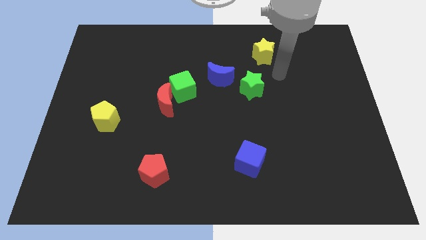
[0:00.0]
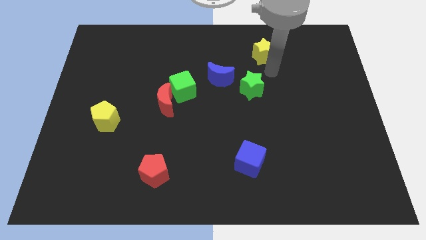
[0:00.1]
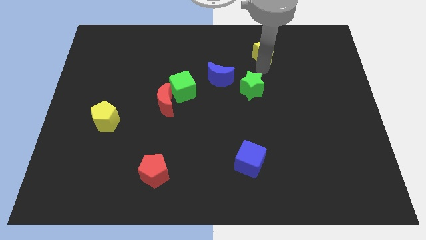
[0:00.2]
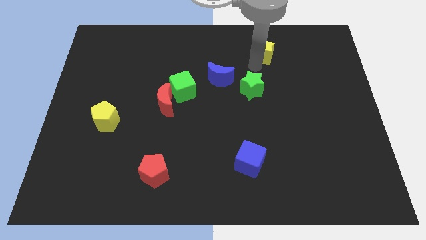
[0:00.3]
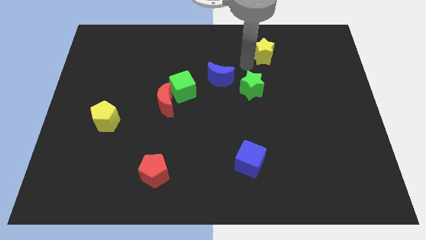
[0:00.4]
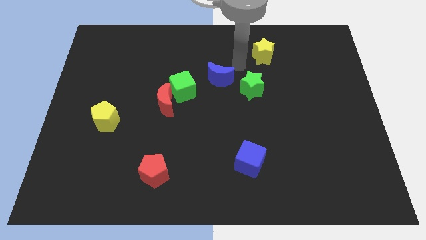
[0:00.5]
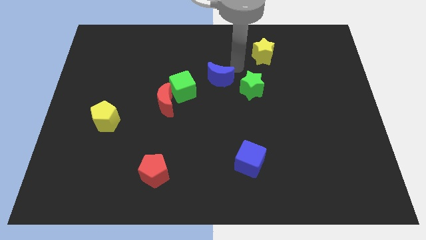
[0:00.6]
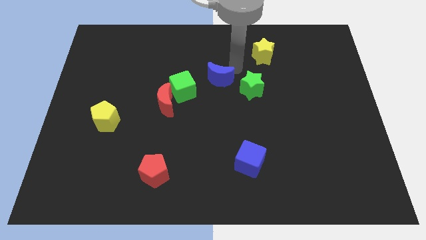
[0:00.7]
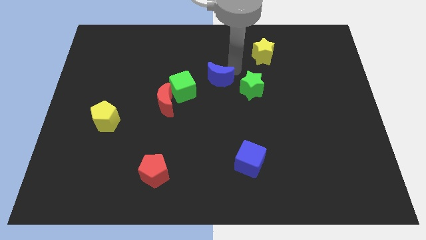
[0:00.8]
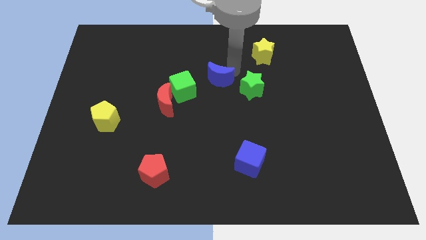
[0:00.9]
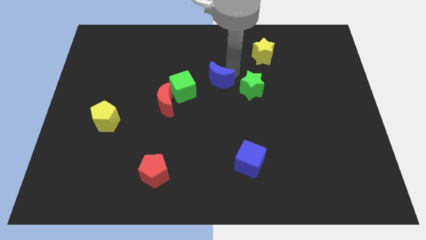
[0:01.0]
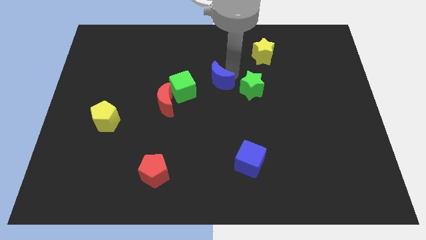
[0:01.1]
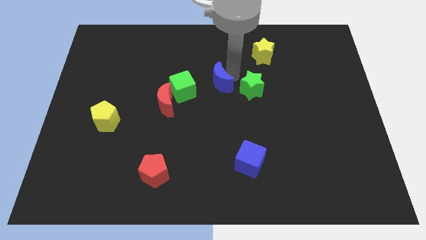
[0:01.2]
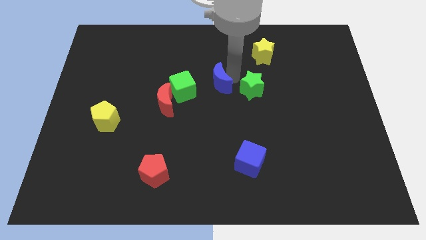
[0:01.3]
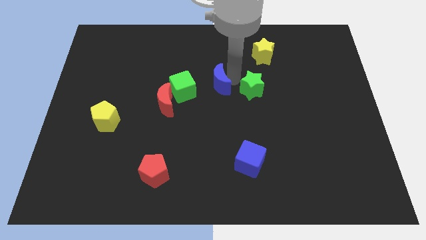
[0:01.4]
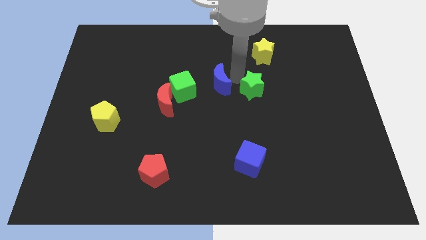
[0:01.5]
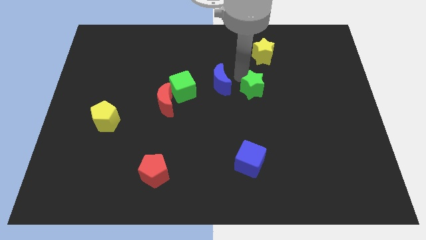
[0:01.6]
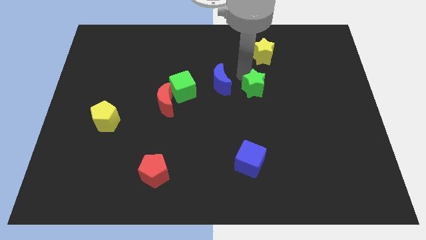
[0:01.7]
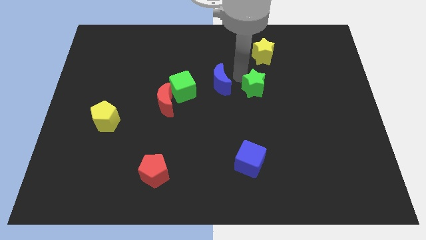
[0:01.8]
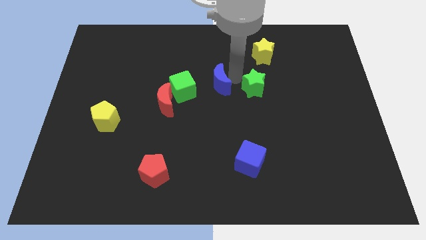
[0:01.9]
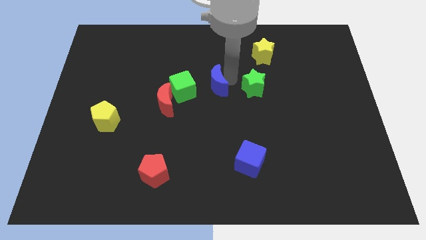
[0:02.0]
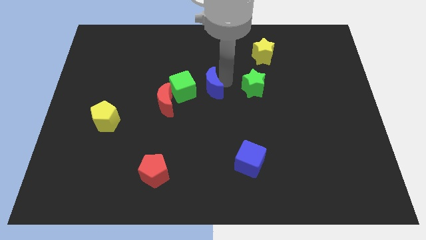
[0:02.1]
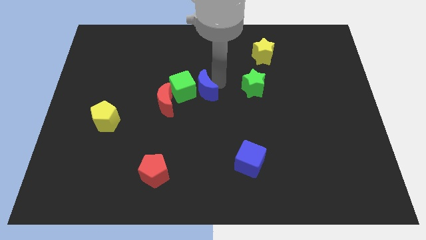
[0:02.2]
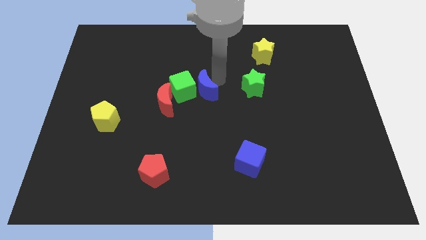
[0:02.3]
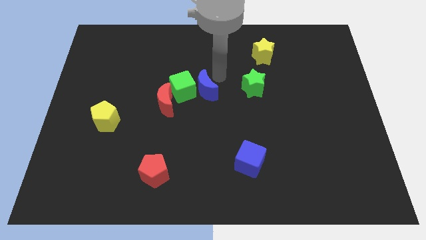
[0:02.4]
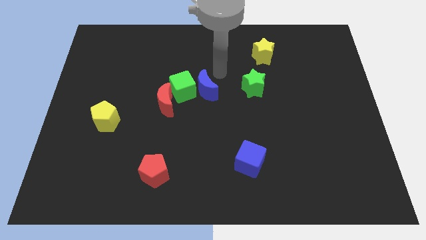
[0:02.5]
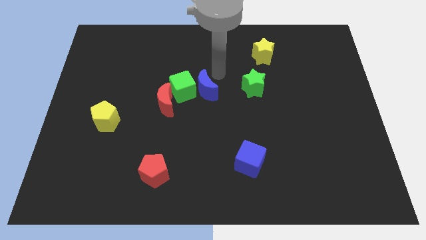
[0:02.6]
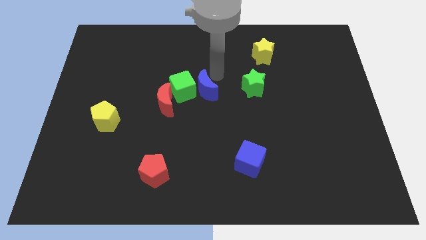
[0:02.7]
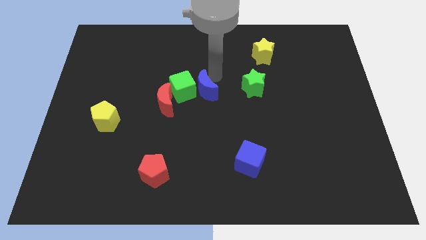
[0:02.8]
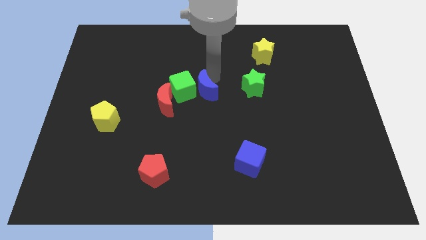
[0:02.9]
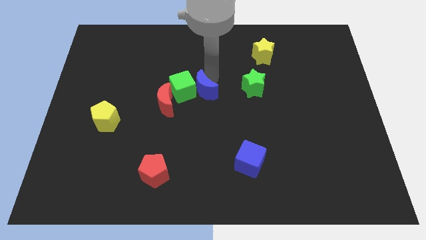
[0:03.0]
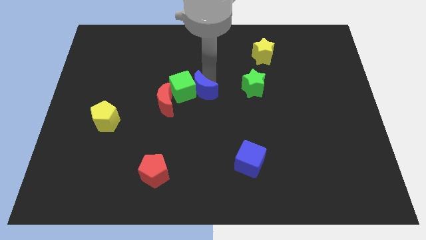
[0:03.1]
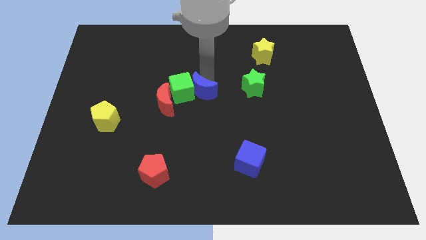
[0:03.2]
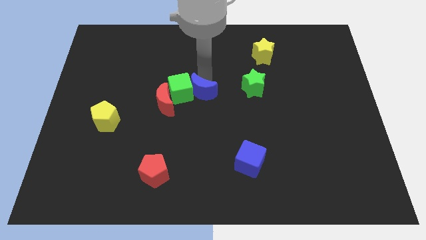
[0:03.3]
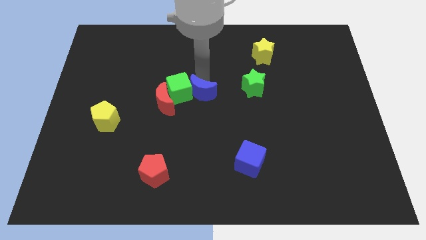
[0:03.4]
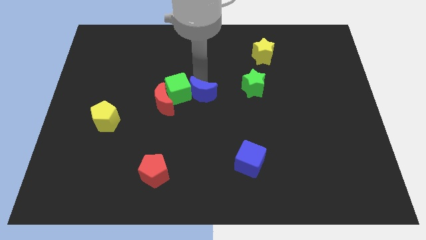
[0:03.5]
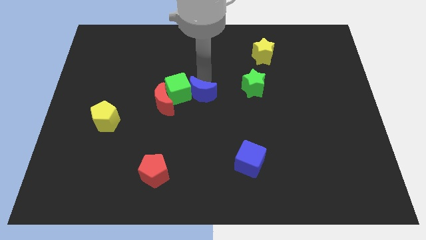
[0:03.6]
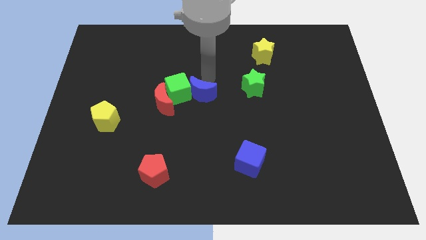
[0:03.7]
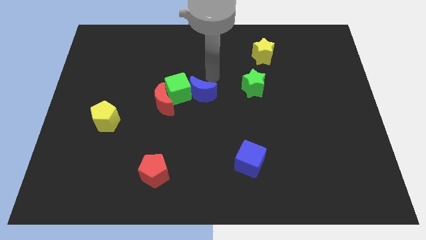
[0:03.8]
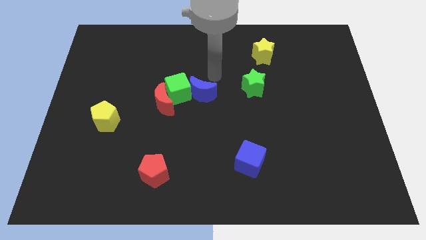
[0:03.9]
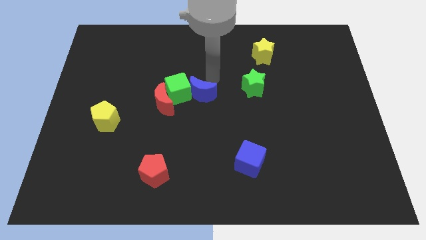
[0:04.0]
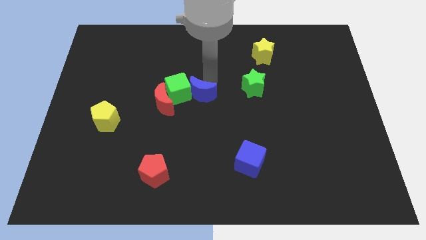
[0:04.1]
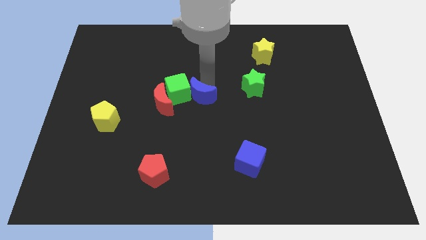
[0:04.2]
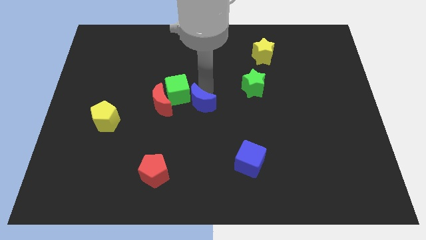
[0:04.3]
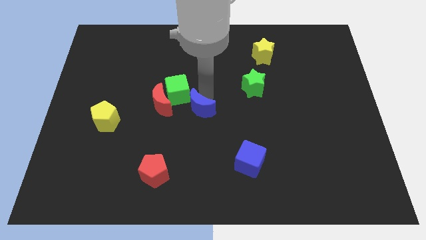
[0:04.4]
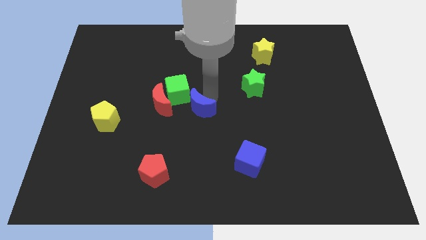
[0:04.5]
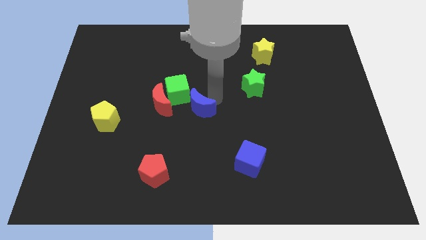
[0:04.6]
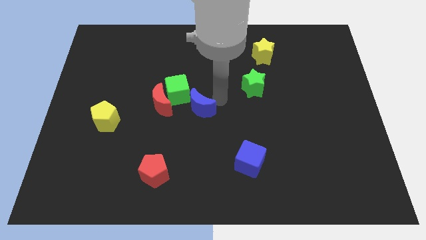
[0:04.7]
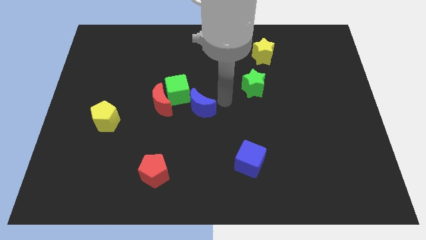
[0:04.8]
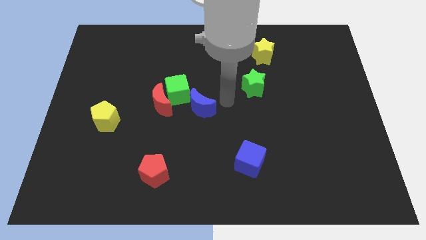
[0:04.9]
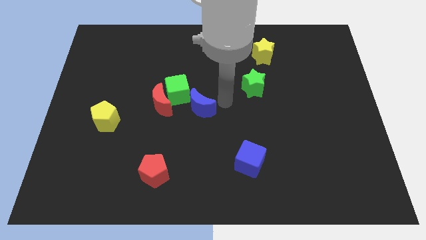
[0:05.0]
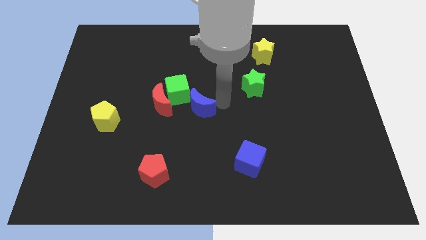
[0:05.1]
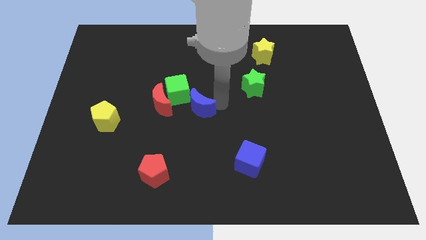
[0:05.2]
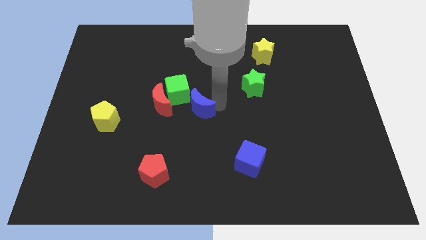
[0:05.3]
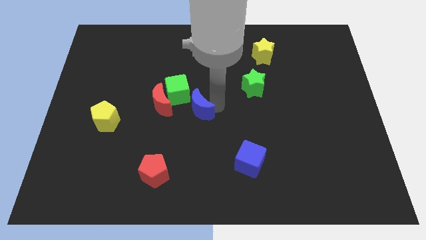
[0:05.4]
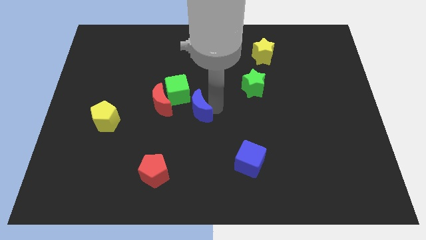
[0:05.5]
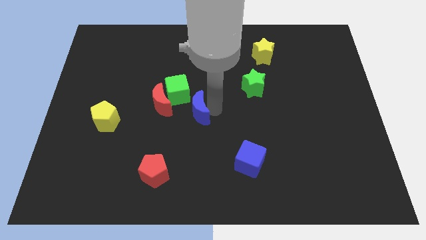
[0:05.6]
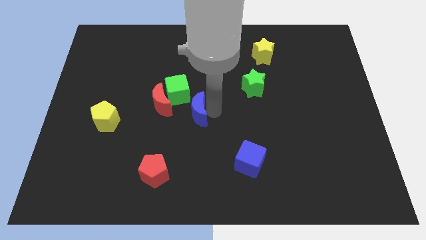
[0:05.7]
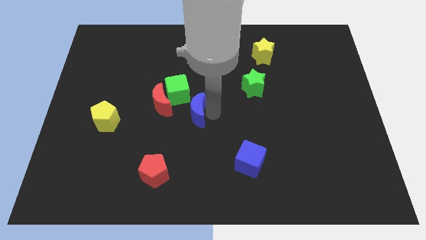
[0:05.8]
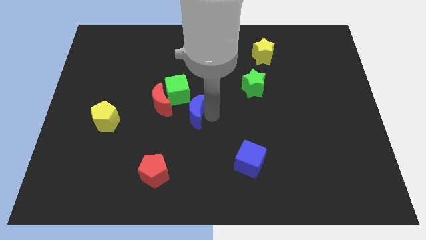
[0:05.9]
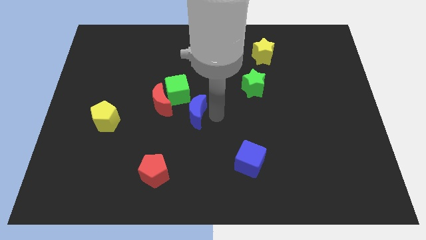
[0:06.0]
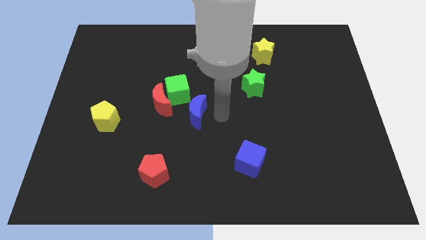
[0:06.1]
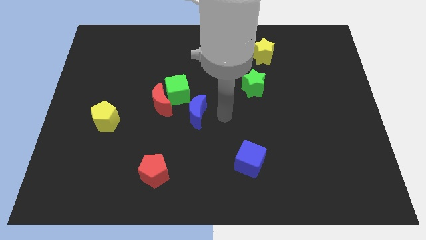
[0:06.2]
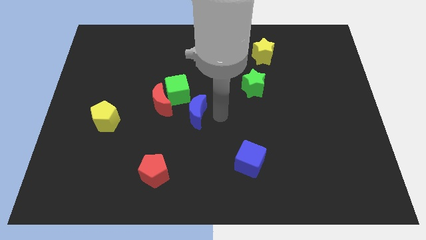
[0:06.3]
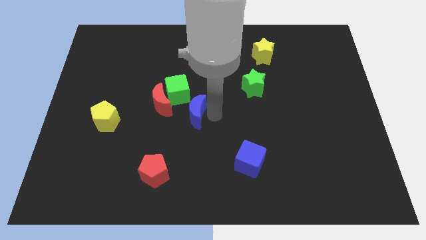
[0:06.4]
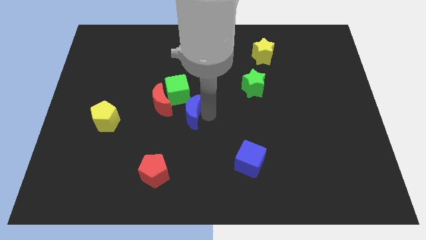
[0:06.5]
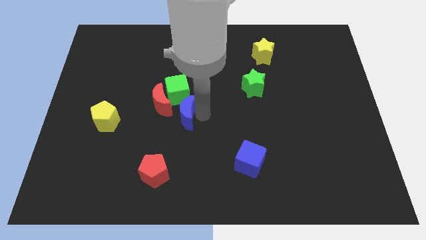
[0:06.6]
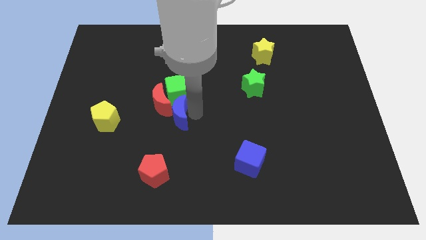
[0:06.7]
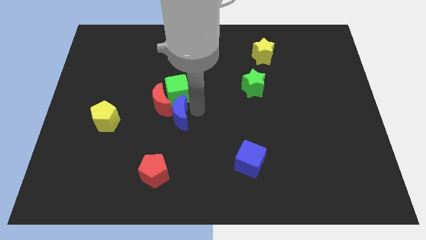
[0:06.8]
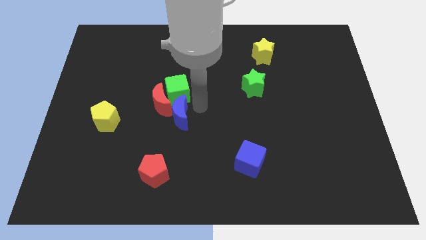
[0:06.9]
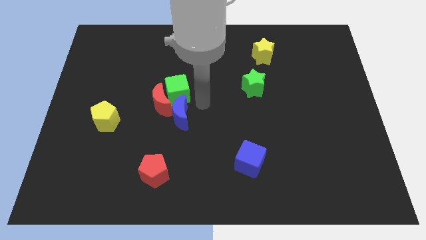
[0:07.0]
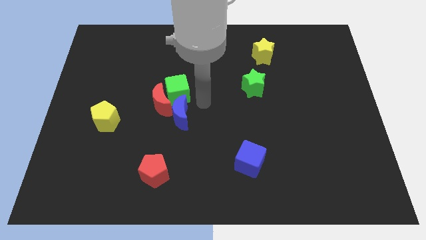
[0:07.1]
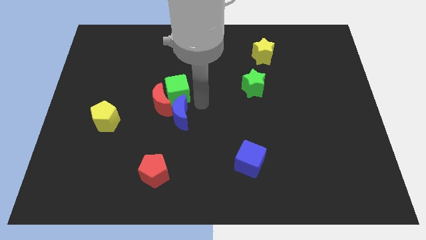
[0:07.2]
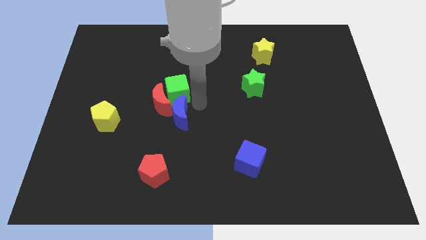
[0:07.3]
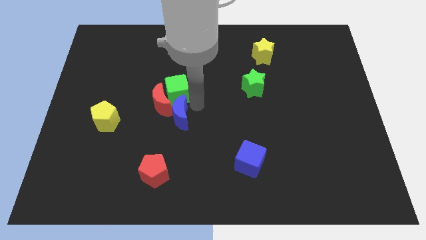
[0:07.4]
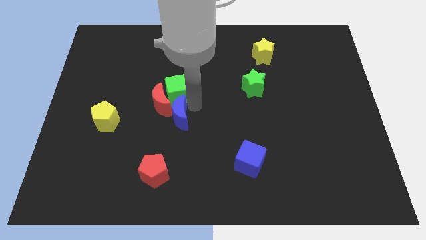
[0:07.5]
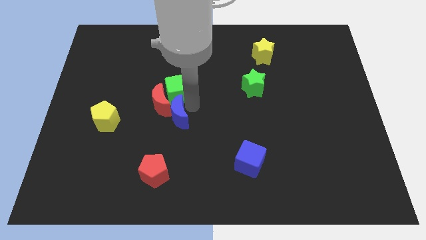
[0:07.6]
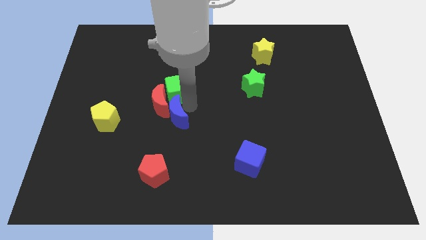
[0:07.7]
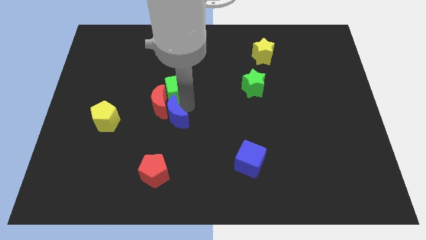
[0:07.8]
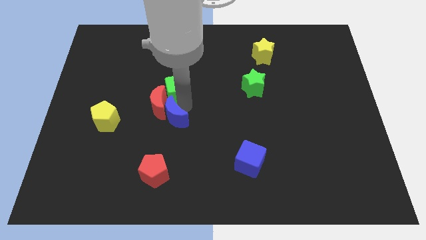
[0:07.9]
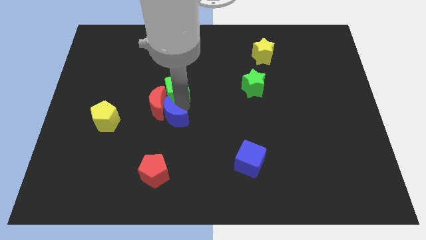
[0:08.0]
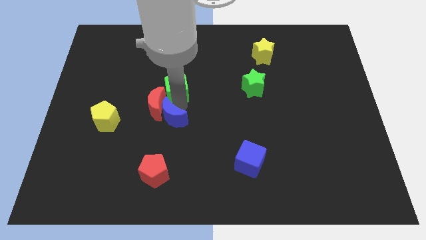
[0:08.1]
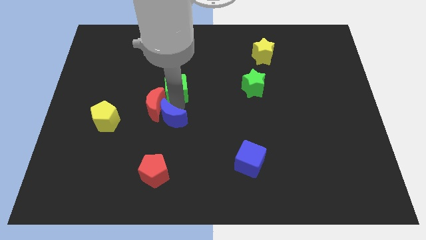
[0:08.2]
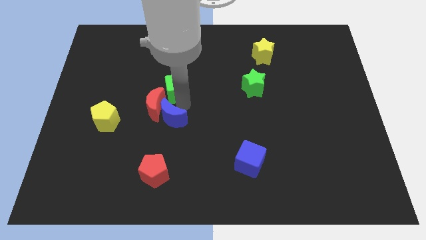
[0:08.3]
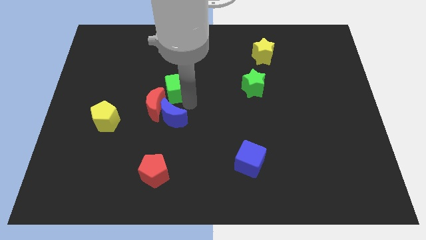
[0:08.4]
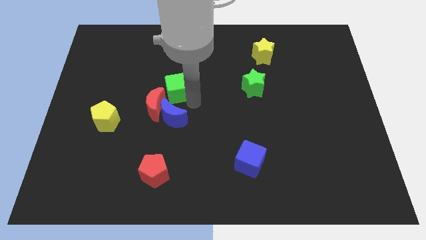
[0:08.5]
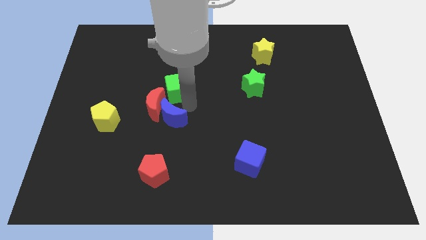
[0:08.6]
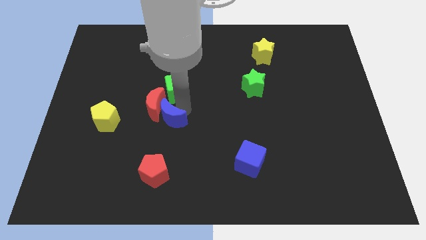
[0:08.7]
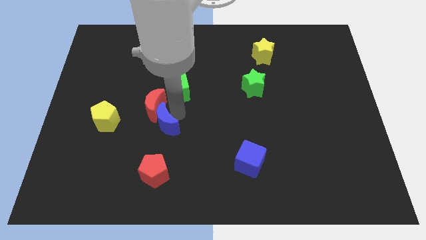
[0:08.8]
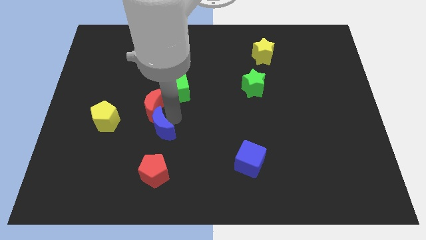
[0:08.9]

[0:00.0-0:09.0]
push the blue moon downwards and left diagonally
